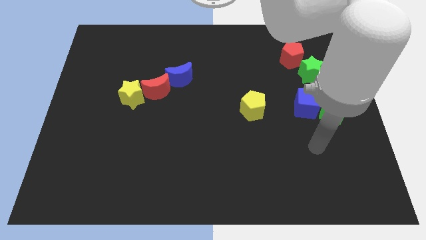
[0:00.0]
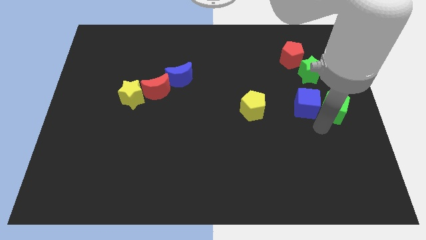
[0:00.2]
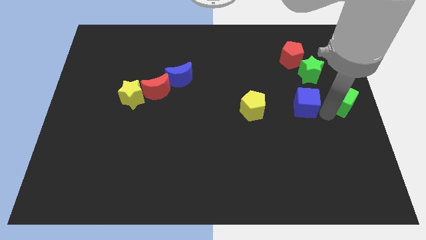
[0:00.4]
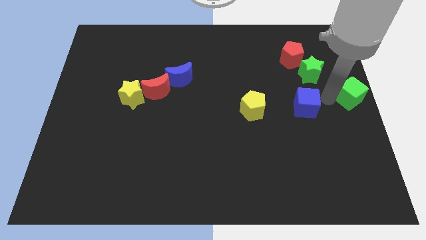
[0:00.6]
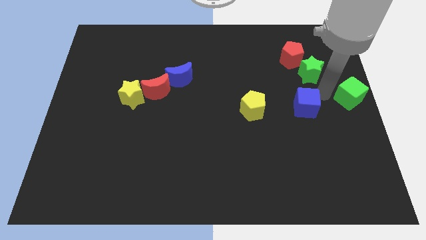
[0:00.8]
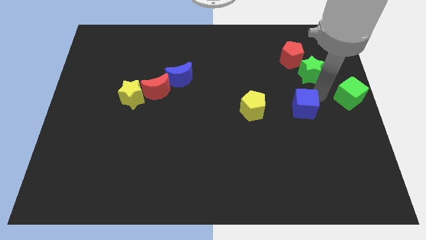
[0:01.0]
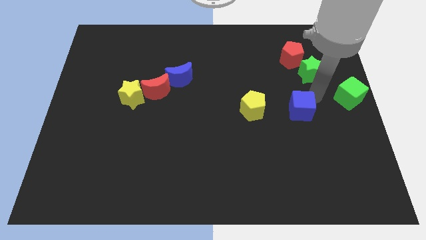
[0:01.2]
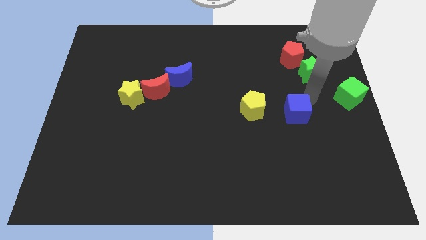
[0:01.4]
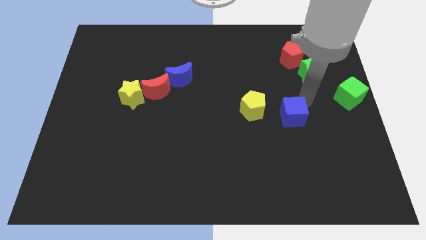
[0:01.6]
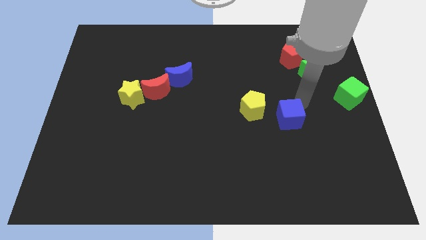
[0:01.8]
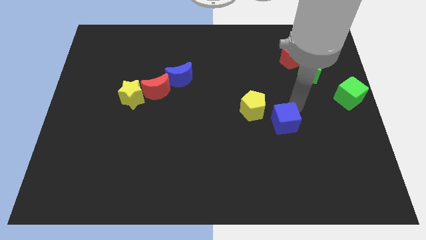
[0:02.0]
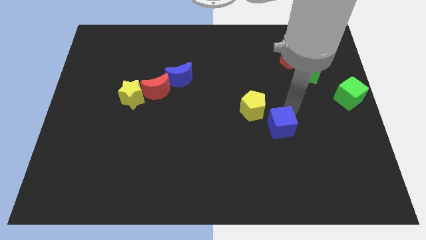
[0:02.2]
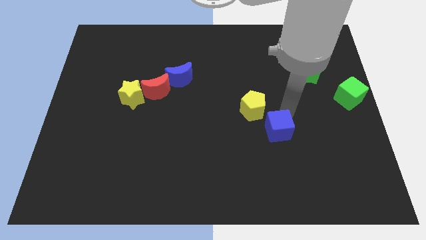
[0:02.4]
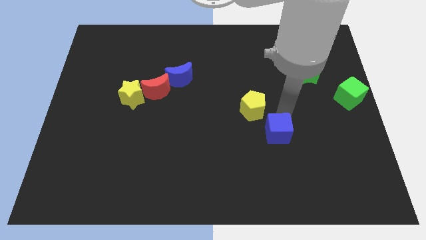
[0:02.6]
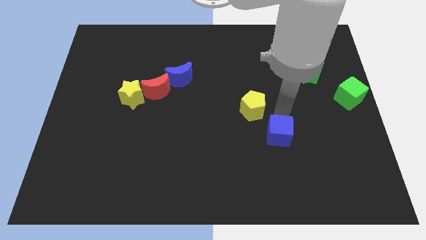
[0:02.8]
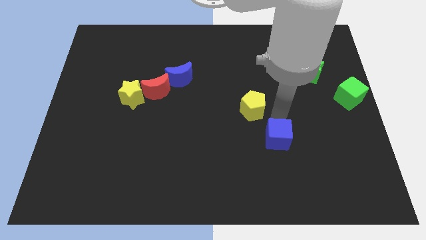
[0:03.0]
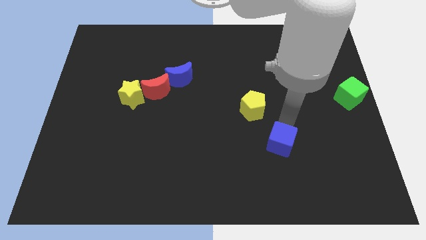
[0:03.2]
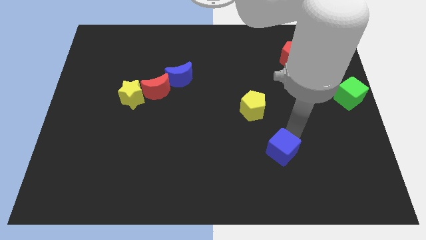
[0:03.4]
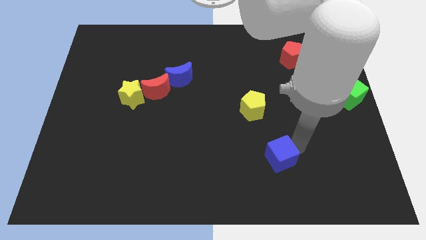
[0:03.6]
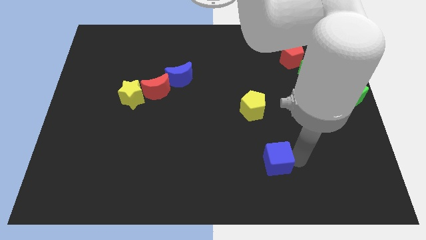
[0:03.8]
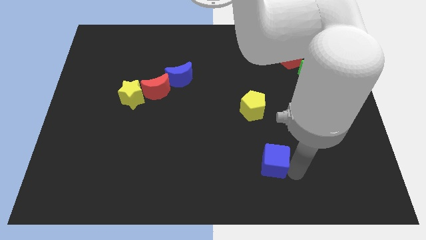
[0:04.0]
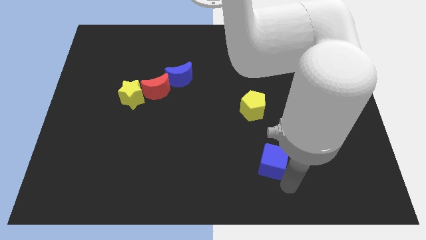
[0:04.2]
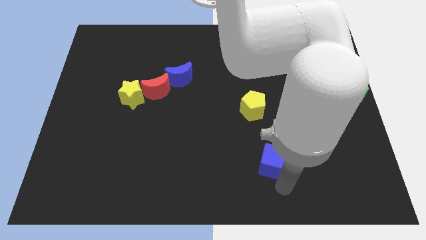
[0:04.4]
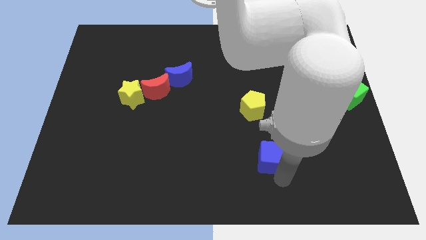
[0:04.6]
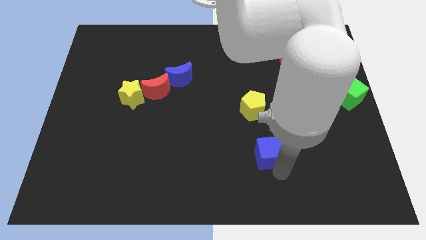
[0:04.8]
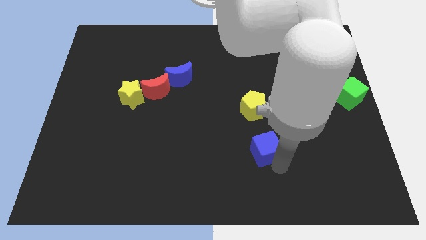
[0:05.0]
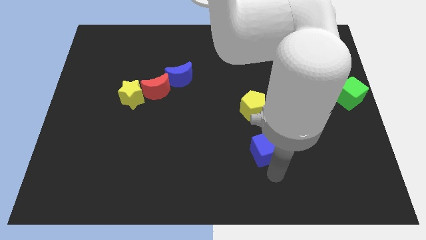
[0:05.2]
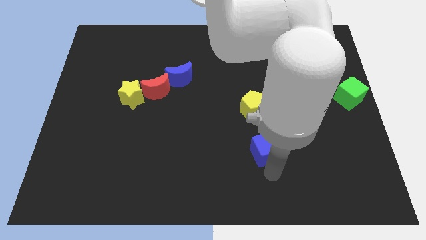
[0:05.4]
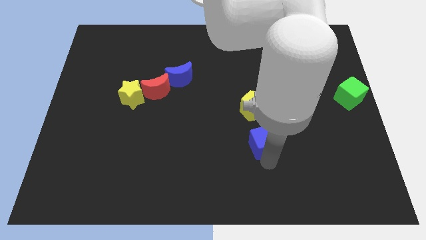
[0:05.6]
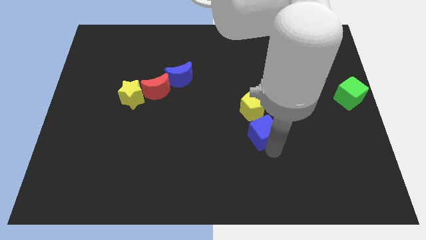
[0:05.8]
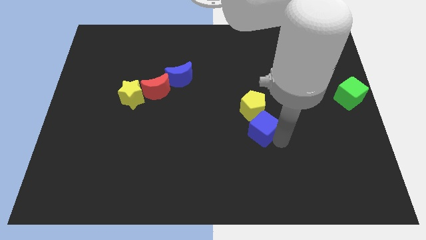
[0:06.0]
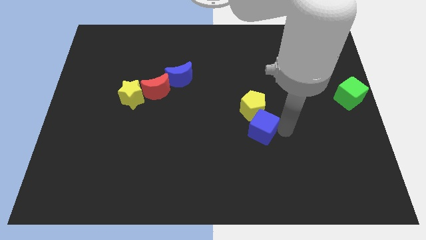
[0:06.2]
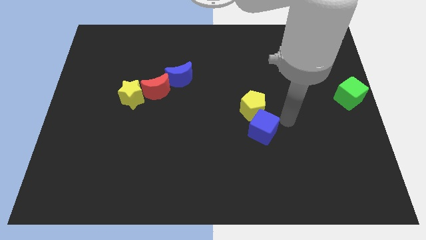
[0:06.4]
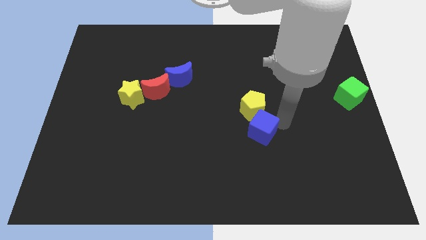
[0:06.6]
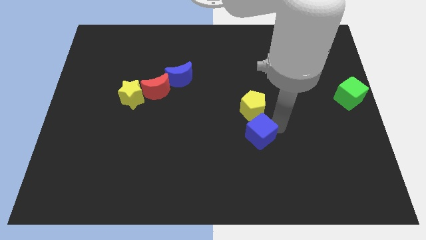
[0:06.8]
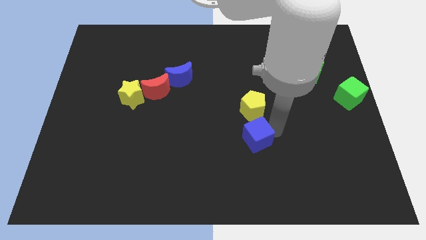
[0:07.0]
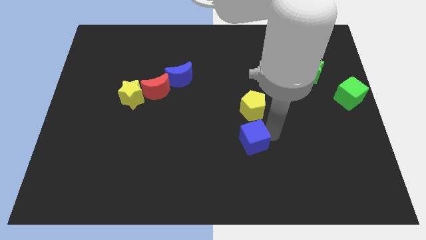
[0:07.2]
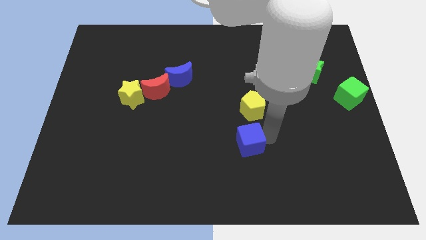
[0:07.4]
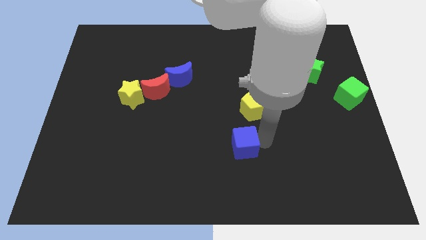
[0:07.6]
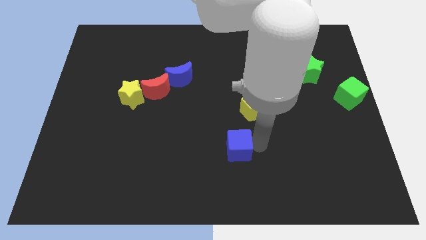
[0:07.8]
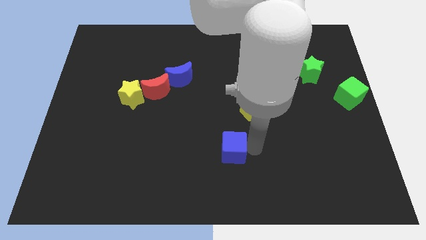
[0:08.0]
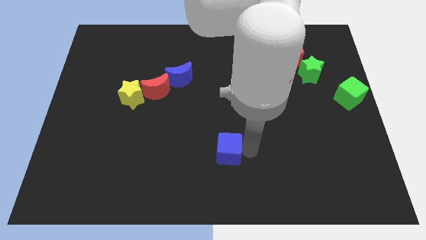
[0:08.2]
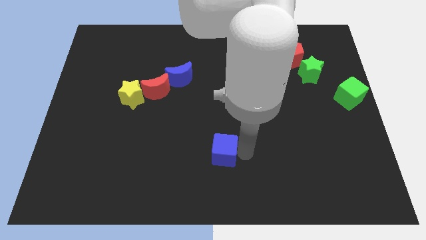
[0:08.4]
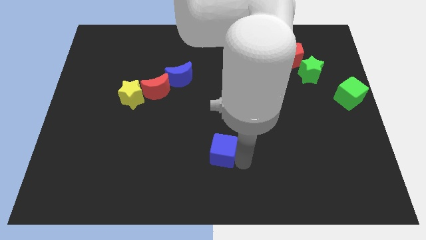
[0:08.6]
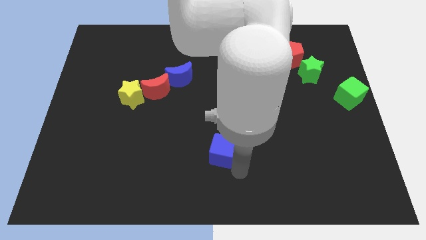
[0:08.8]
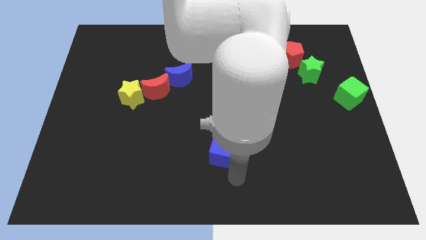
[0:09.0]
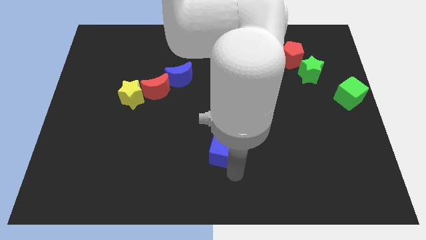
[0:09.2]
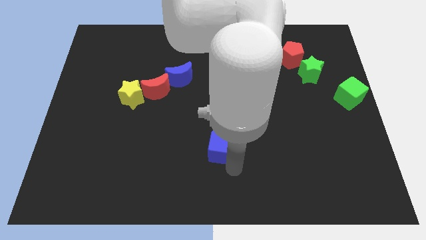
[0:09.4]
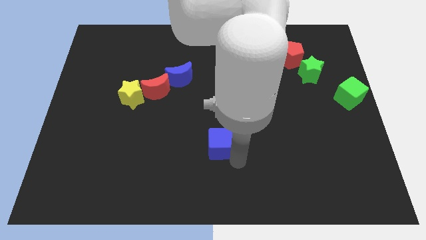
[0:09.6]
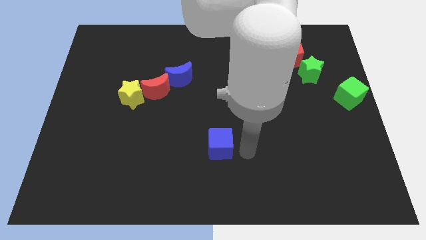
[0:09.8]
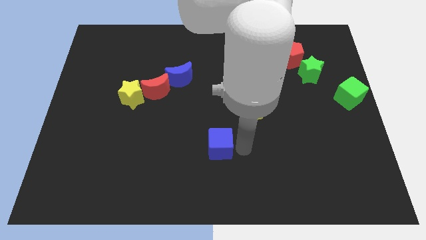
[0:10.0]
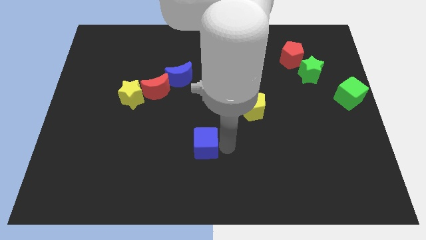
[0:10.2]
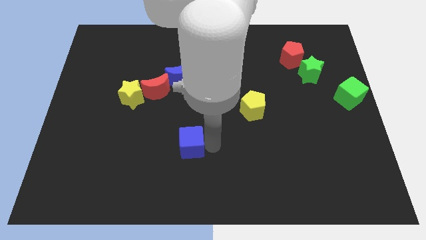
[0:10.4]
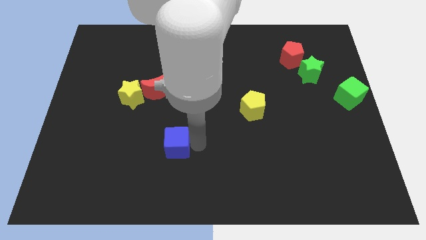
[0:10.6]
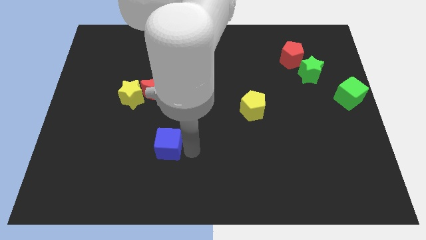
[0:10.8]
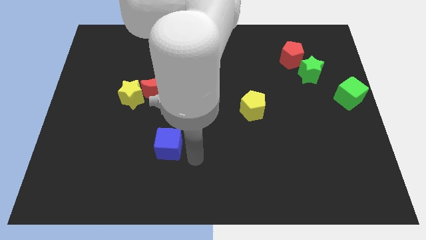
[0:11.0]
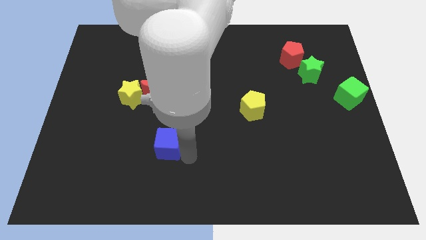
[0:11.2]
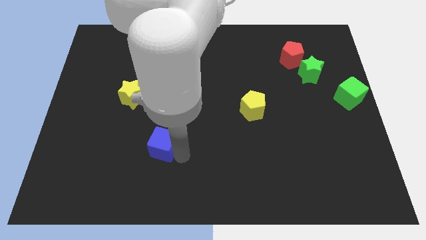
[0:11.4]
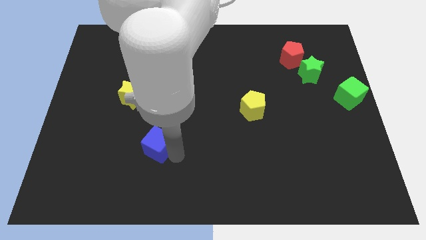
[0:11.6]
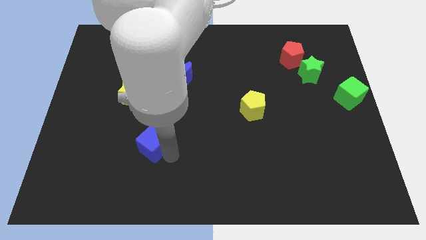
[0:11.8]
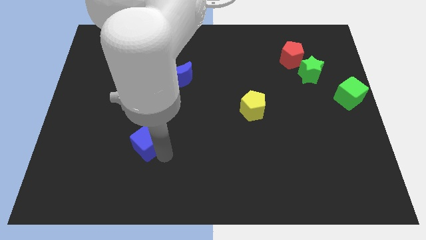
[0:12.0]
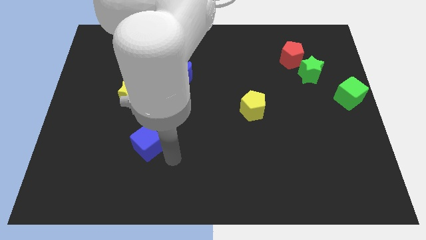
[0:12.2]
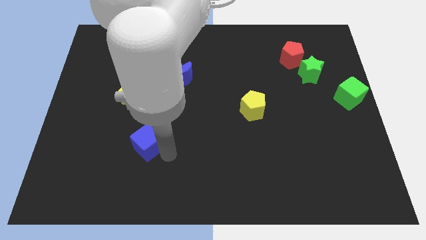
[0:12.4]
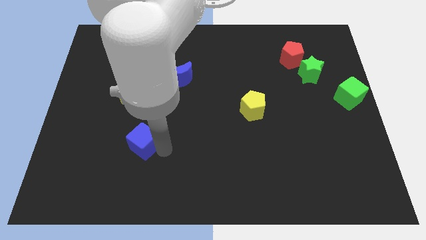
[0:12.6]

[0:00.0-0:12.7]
slide the blue cube below the yellow star

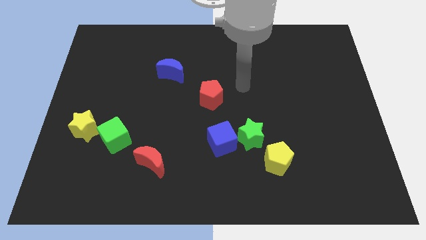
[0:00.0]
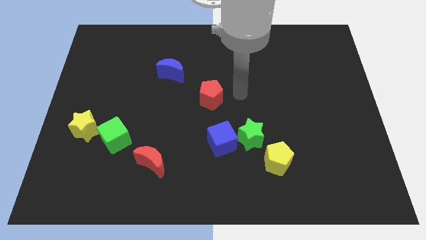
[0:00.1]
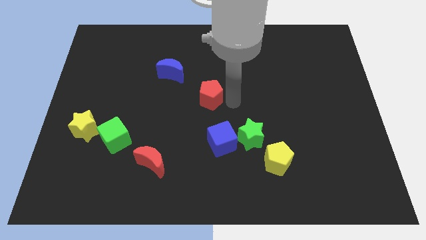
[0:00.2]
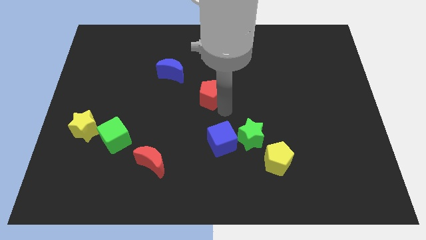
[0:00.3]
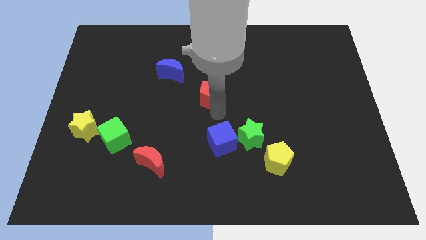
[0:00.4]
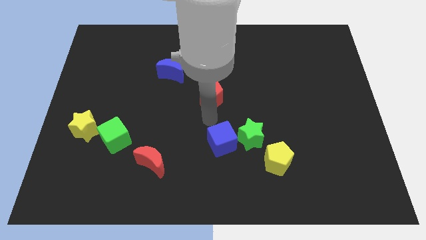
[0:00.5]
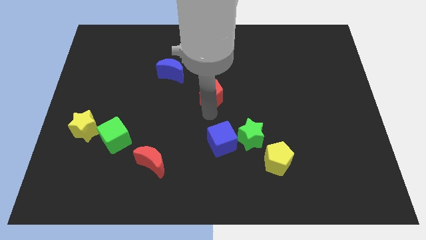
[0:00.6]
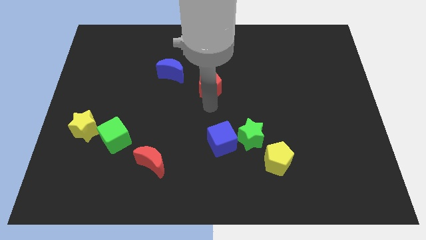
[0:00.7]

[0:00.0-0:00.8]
put the red pentagon to the right side of the blue moon
